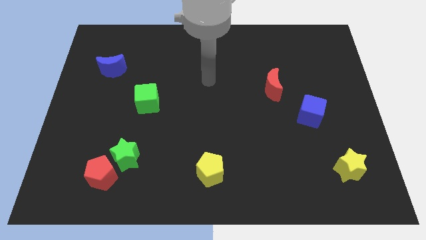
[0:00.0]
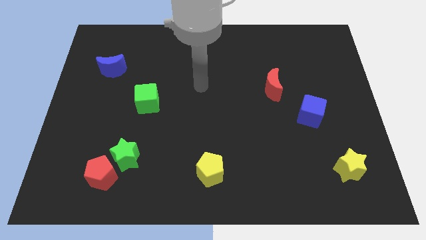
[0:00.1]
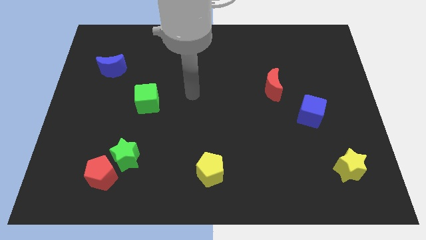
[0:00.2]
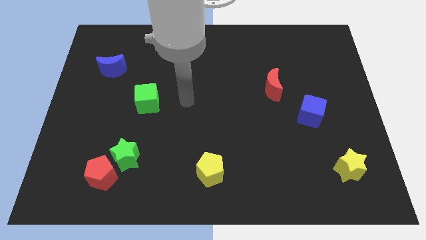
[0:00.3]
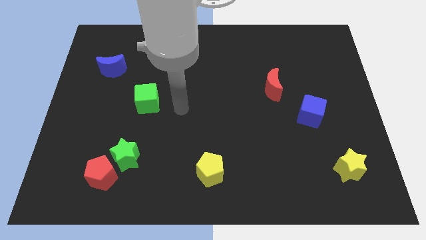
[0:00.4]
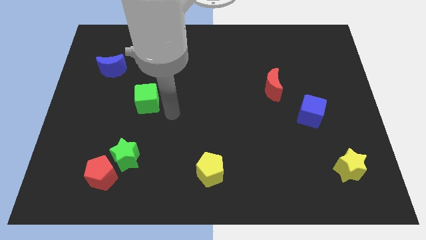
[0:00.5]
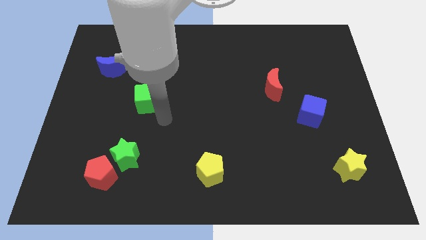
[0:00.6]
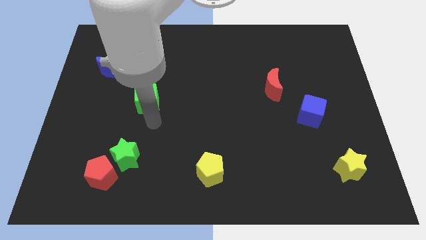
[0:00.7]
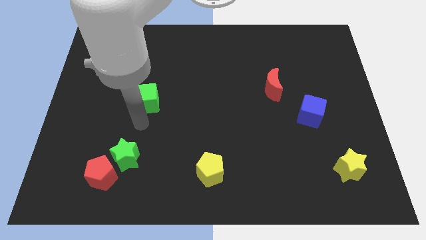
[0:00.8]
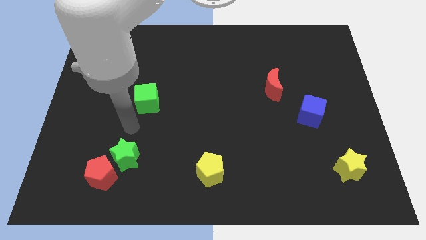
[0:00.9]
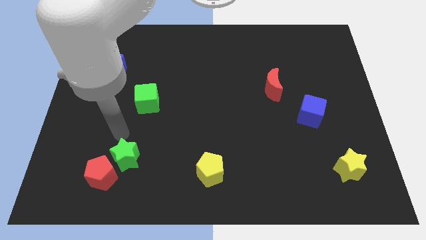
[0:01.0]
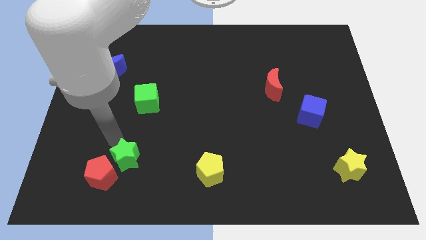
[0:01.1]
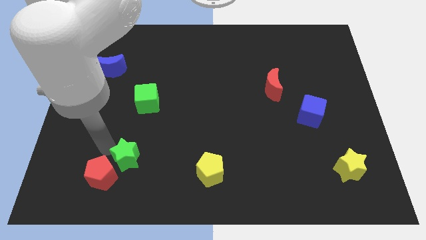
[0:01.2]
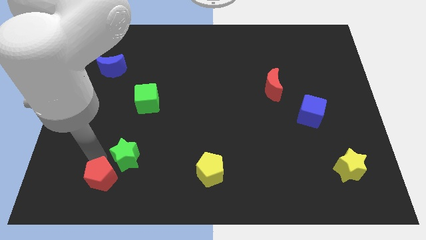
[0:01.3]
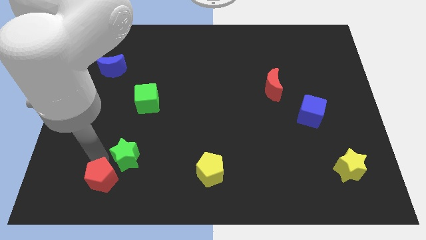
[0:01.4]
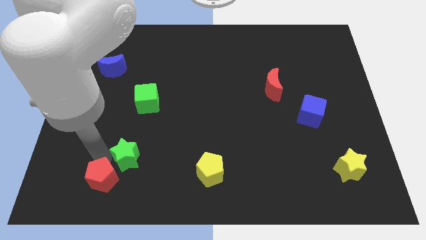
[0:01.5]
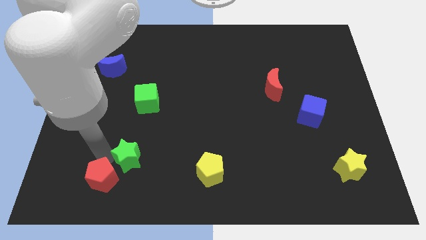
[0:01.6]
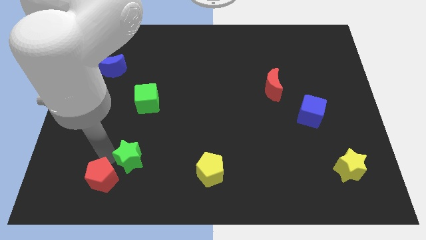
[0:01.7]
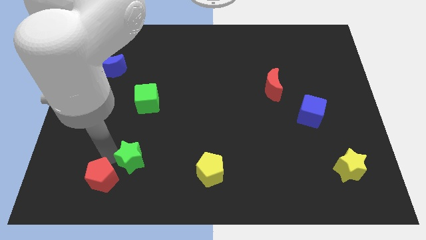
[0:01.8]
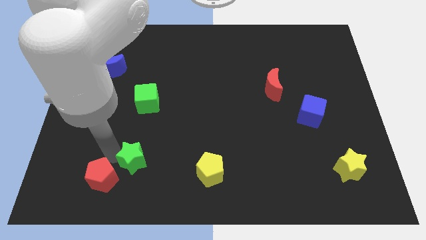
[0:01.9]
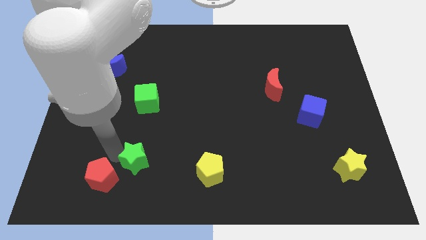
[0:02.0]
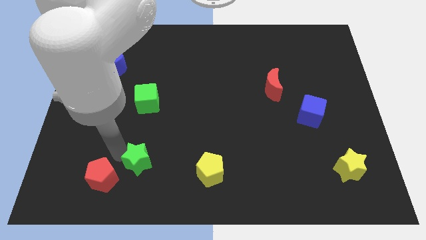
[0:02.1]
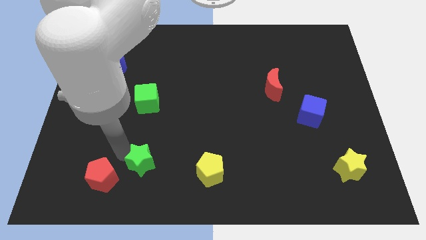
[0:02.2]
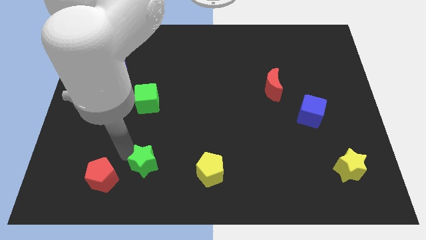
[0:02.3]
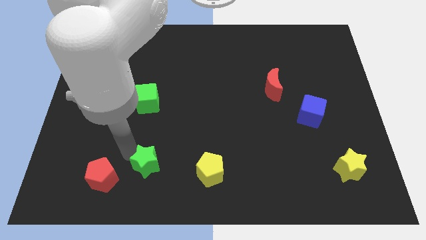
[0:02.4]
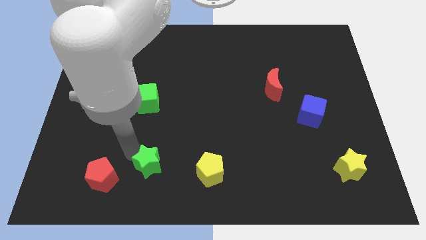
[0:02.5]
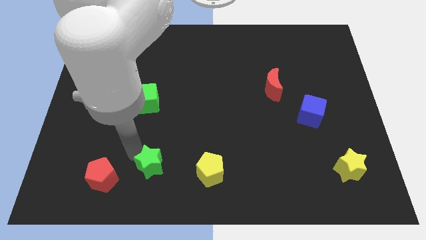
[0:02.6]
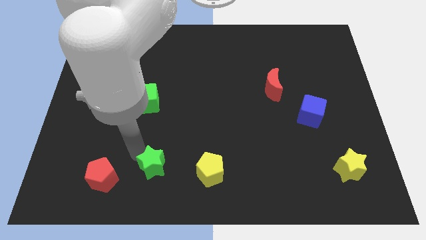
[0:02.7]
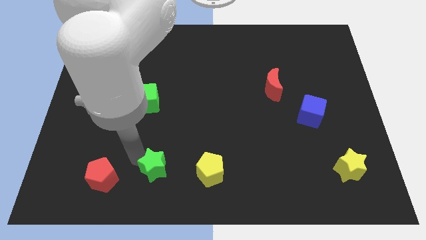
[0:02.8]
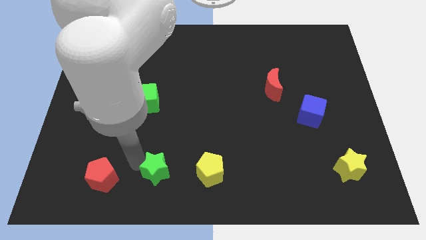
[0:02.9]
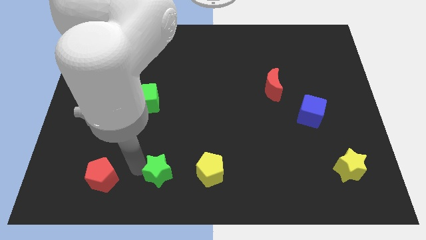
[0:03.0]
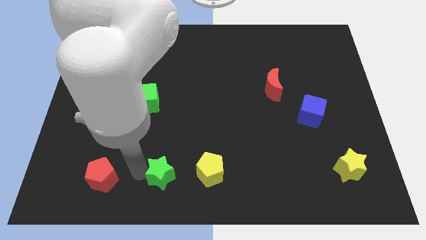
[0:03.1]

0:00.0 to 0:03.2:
slide the green star right a bit

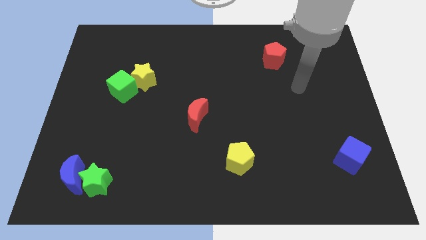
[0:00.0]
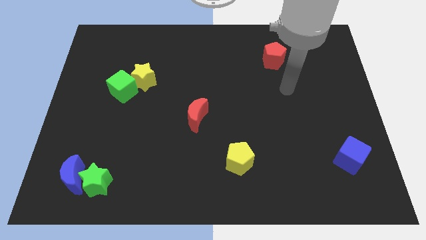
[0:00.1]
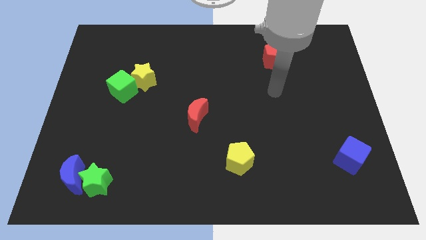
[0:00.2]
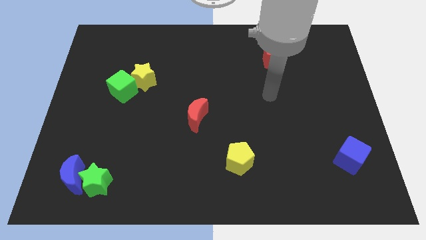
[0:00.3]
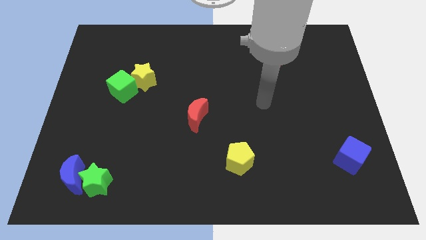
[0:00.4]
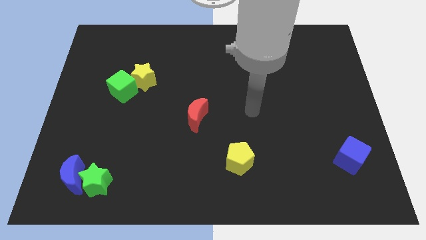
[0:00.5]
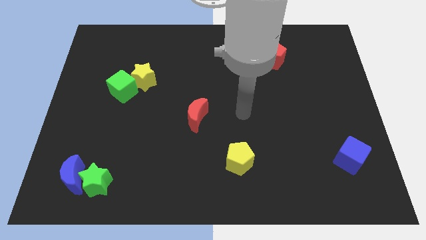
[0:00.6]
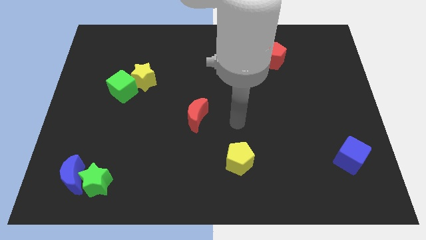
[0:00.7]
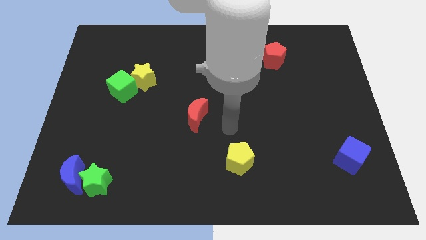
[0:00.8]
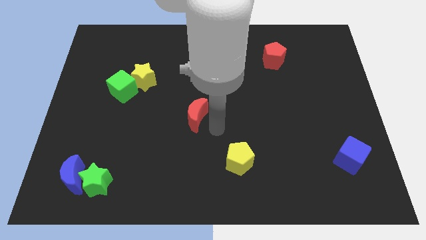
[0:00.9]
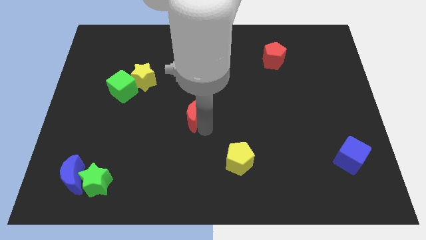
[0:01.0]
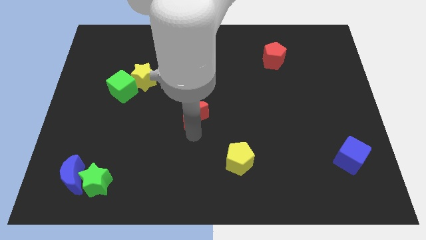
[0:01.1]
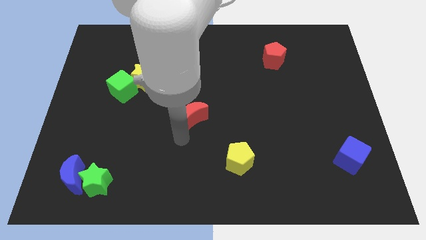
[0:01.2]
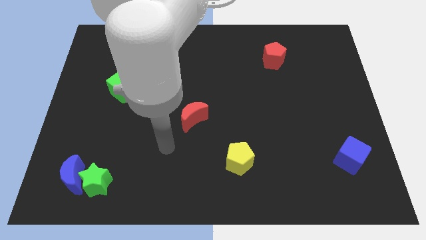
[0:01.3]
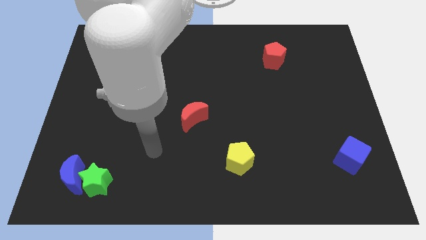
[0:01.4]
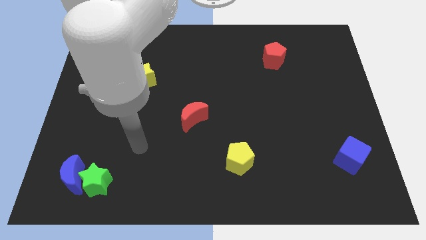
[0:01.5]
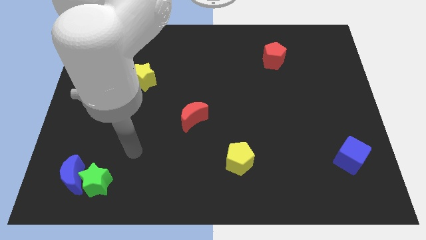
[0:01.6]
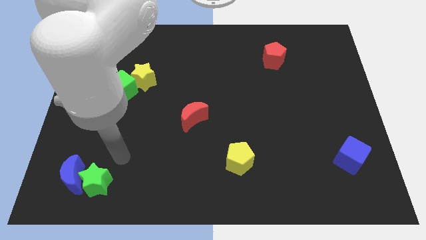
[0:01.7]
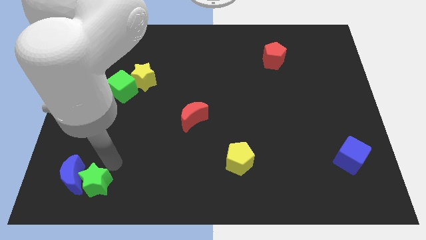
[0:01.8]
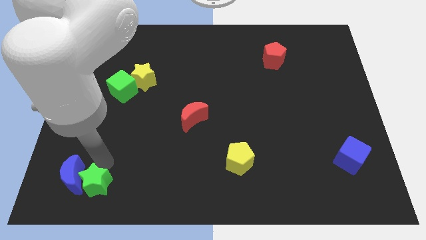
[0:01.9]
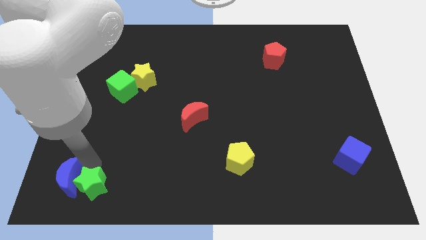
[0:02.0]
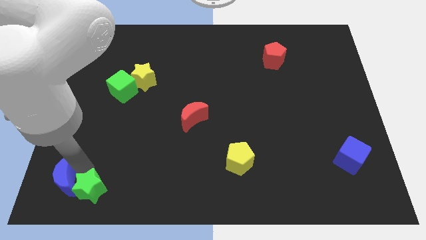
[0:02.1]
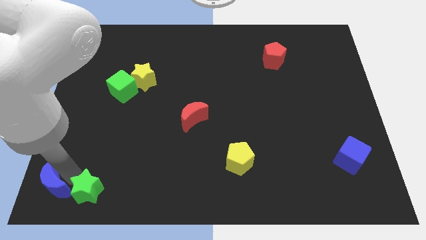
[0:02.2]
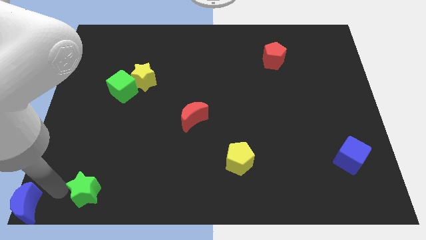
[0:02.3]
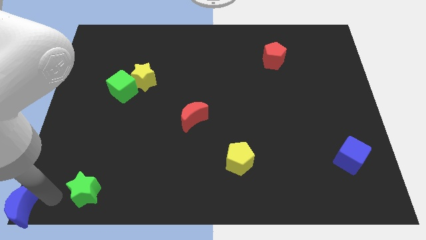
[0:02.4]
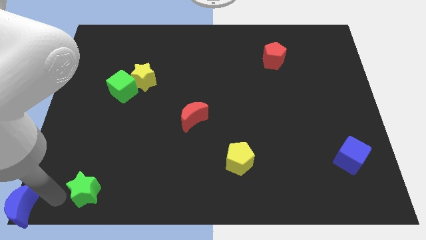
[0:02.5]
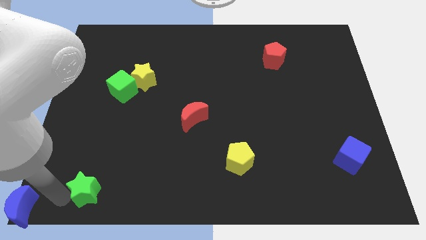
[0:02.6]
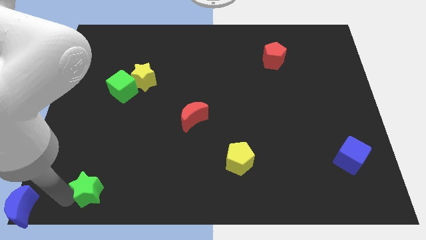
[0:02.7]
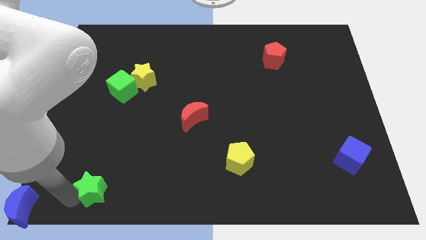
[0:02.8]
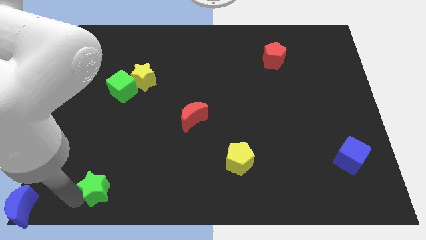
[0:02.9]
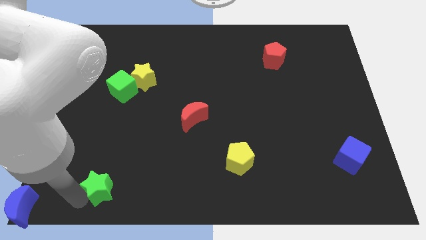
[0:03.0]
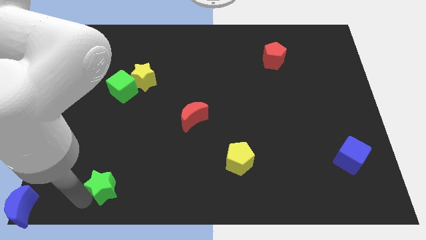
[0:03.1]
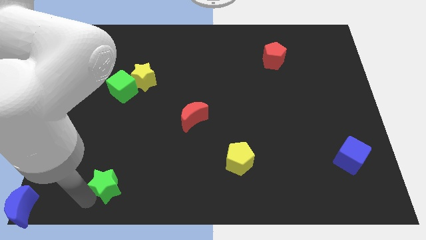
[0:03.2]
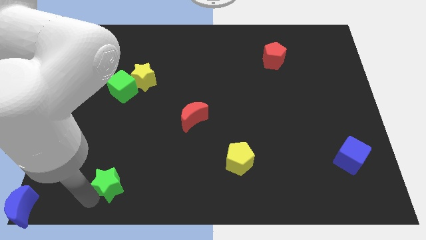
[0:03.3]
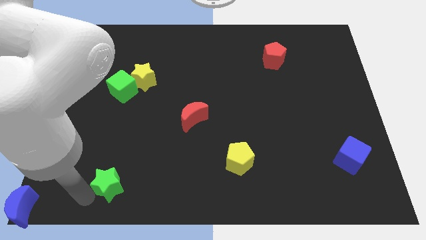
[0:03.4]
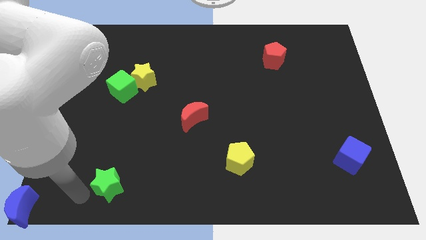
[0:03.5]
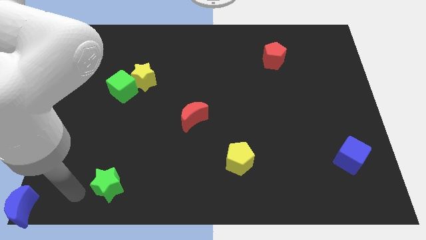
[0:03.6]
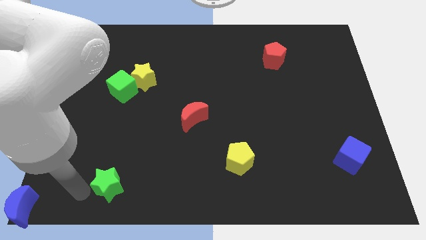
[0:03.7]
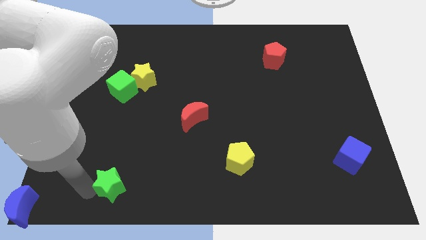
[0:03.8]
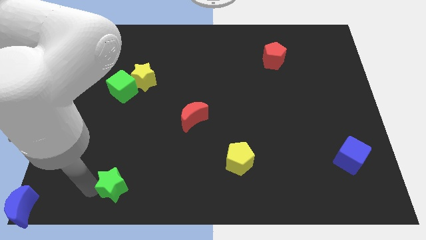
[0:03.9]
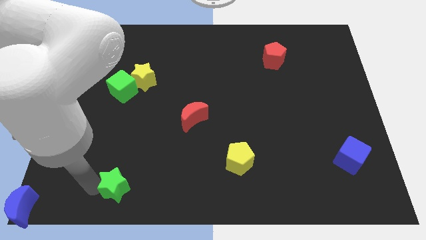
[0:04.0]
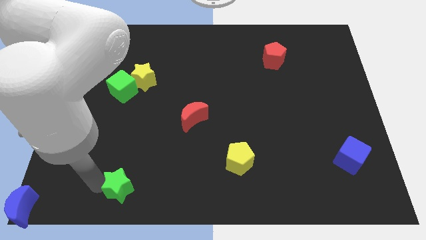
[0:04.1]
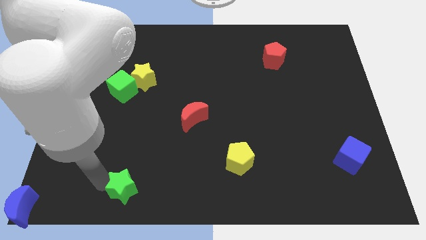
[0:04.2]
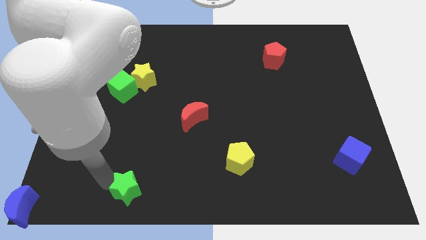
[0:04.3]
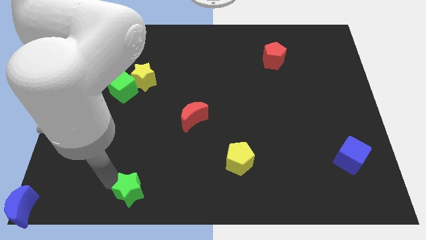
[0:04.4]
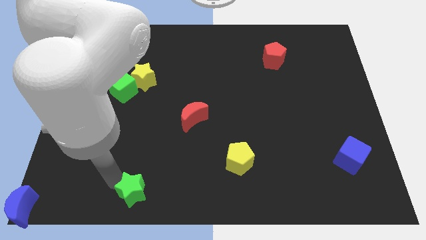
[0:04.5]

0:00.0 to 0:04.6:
push the green star right a bit
